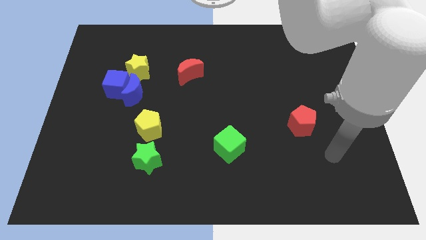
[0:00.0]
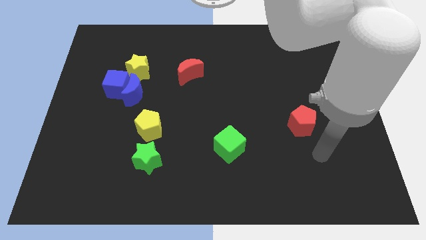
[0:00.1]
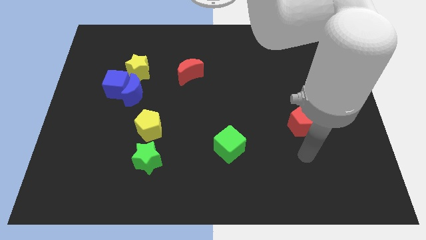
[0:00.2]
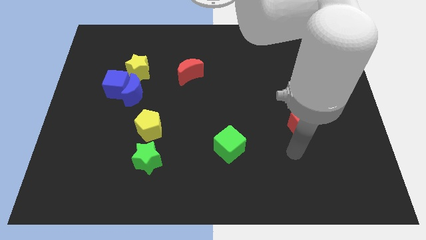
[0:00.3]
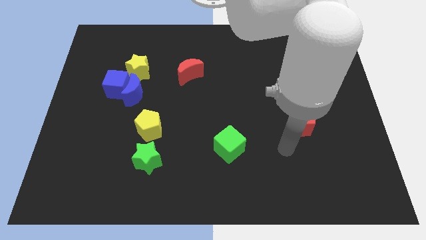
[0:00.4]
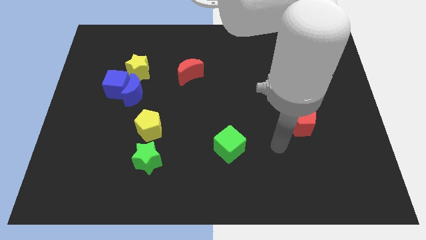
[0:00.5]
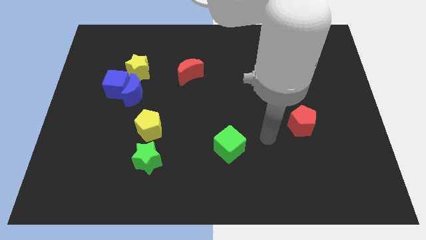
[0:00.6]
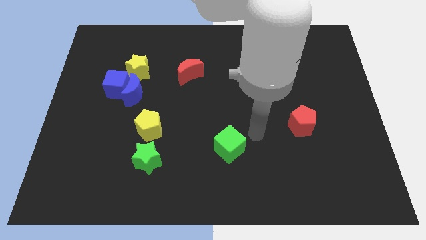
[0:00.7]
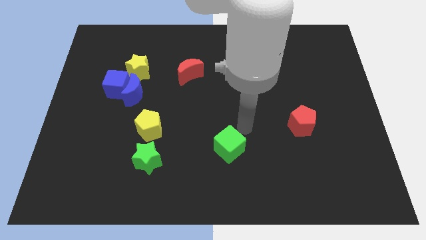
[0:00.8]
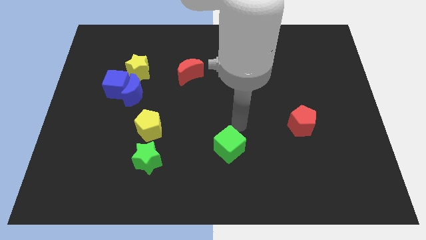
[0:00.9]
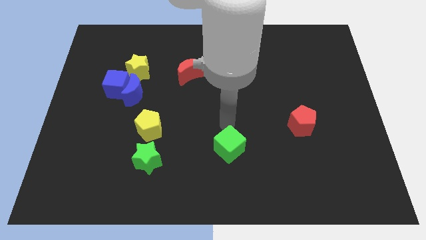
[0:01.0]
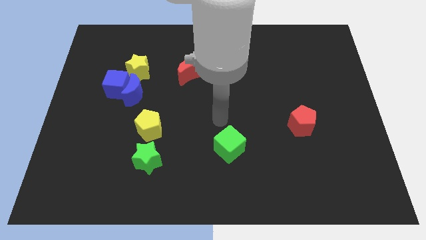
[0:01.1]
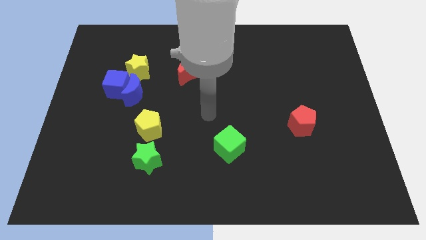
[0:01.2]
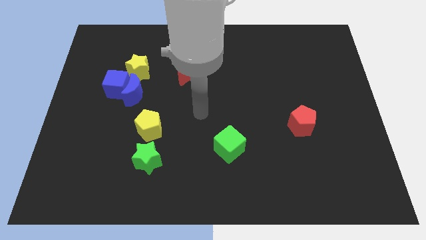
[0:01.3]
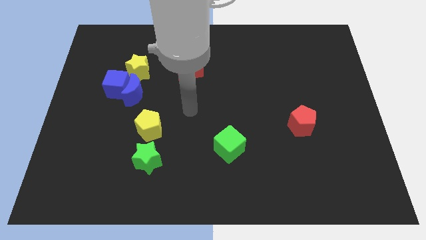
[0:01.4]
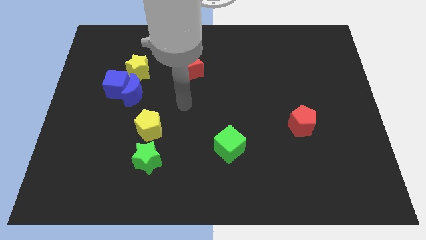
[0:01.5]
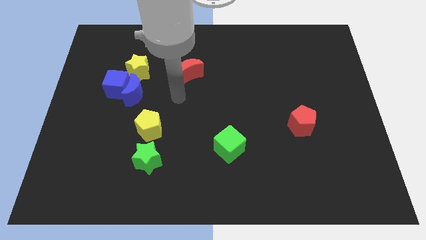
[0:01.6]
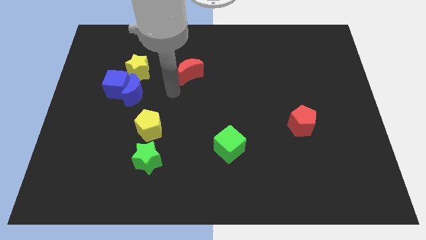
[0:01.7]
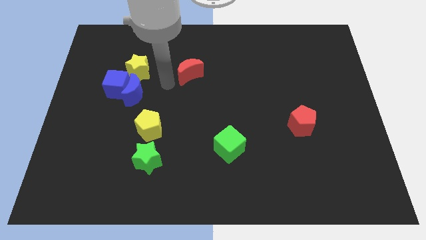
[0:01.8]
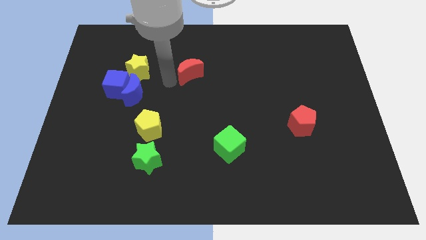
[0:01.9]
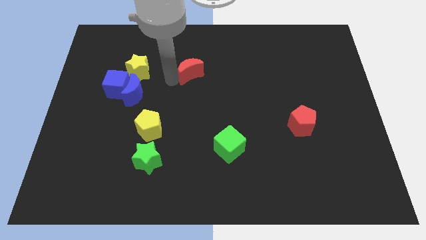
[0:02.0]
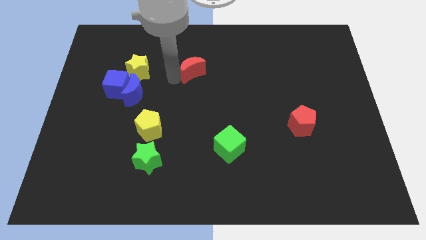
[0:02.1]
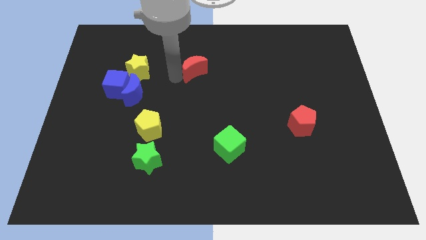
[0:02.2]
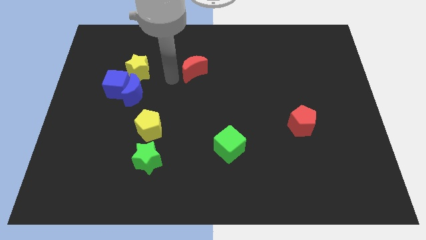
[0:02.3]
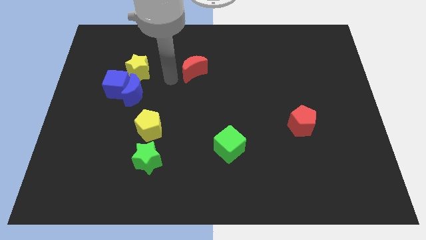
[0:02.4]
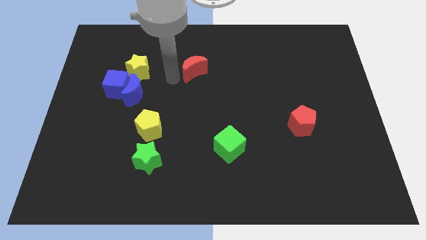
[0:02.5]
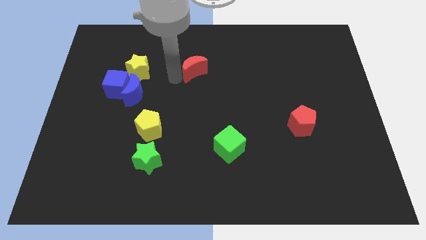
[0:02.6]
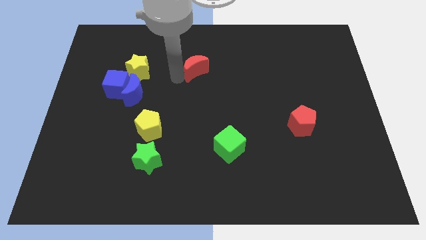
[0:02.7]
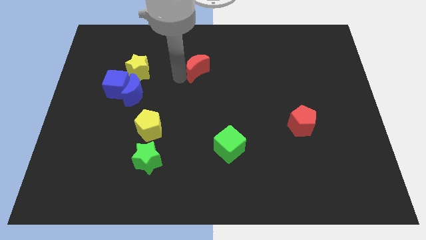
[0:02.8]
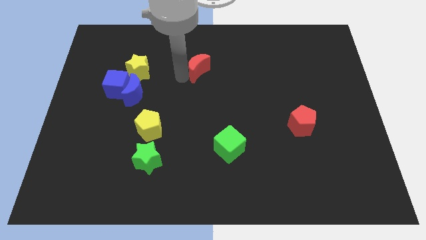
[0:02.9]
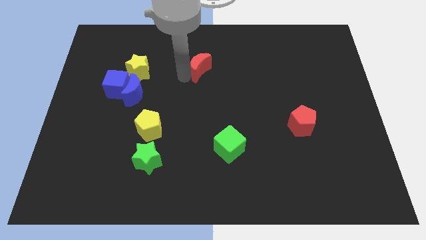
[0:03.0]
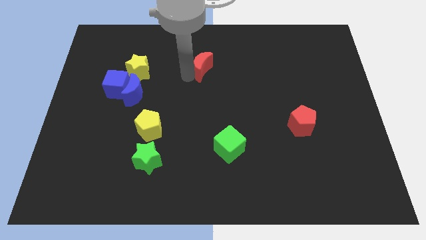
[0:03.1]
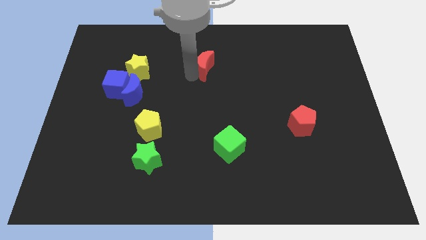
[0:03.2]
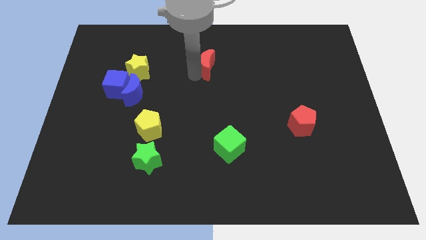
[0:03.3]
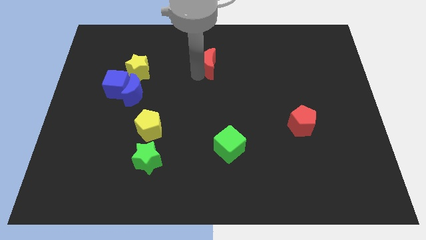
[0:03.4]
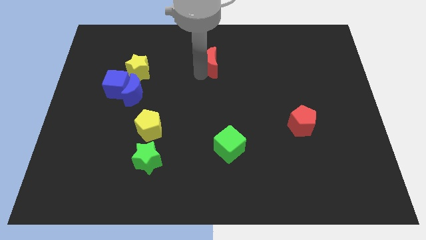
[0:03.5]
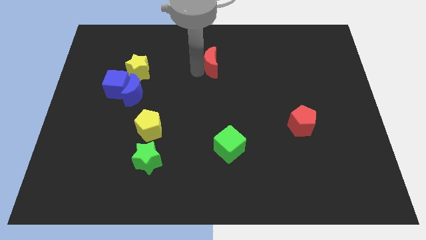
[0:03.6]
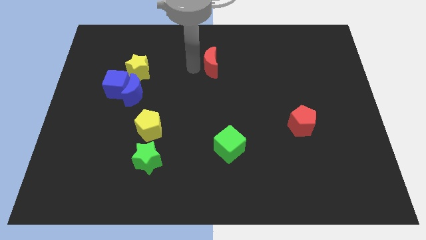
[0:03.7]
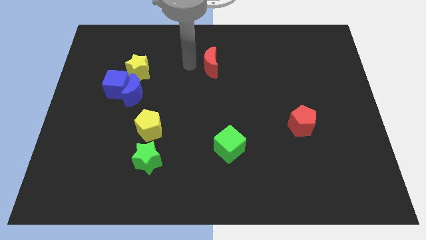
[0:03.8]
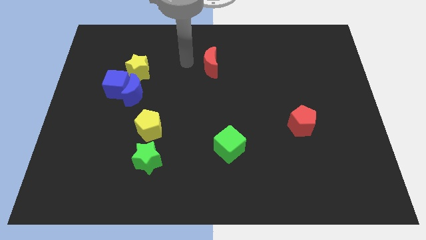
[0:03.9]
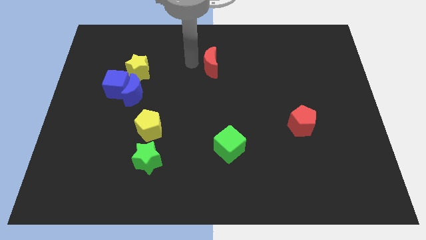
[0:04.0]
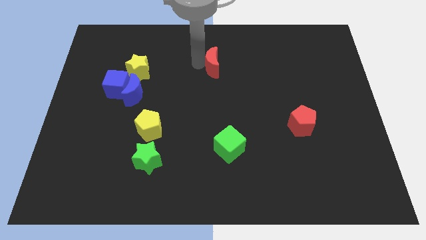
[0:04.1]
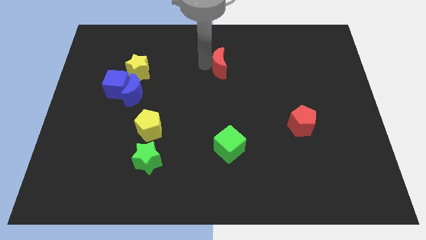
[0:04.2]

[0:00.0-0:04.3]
push the red moon to the right a little

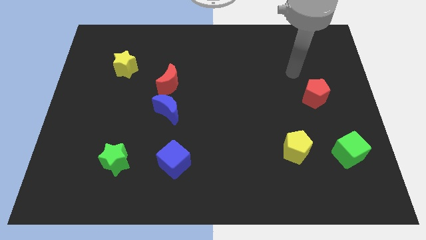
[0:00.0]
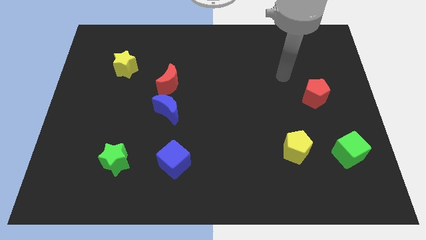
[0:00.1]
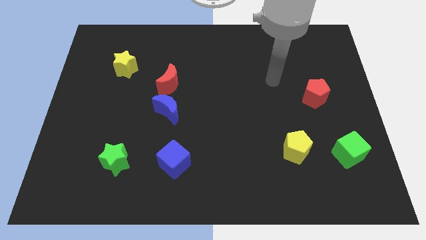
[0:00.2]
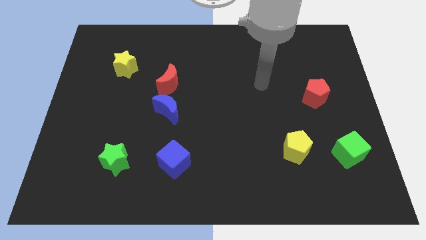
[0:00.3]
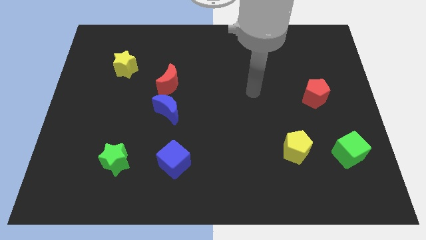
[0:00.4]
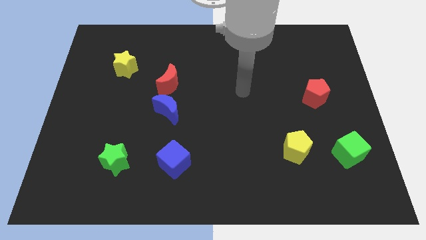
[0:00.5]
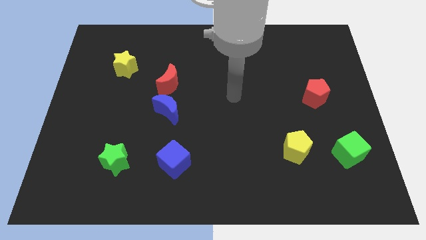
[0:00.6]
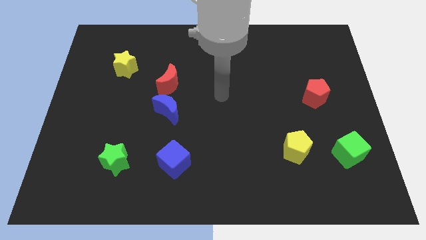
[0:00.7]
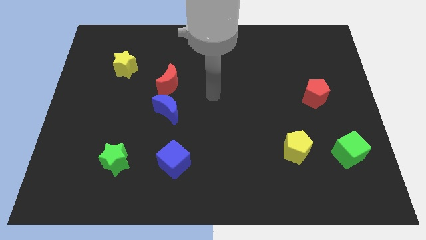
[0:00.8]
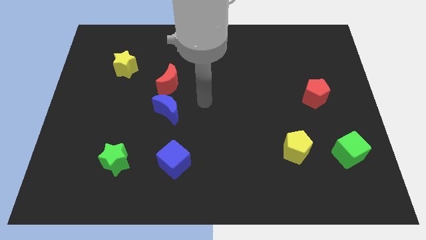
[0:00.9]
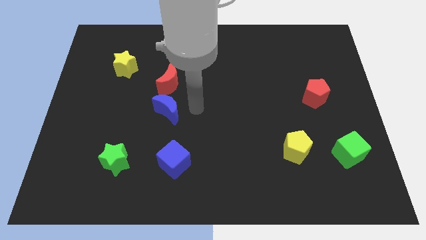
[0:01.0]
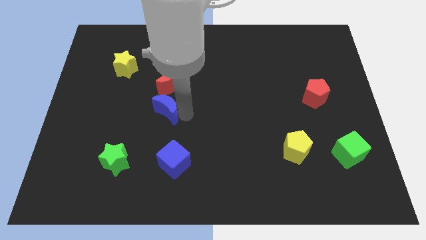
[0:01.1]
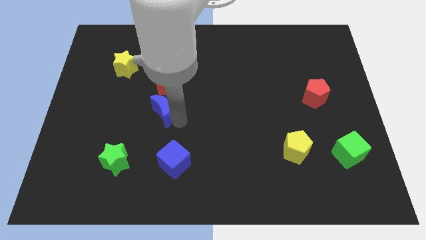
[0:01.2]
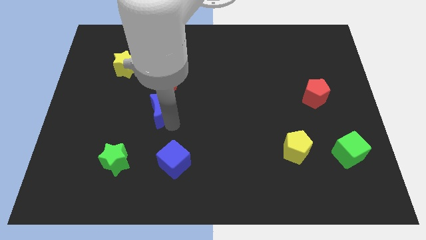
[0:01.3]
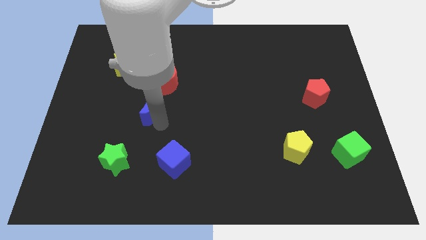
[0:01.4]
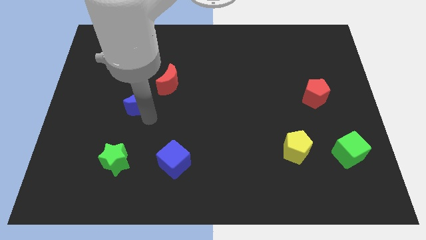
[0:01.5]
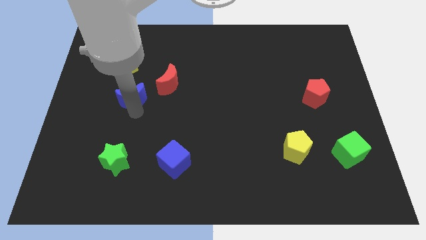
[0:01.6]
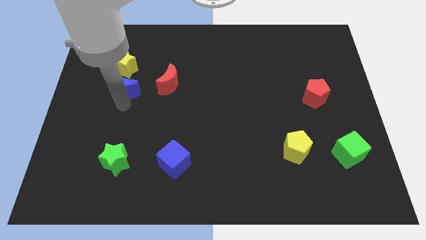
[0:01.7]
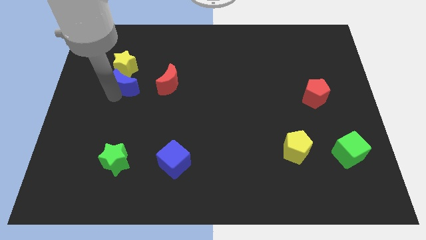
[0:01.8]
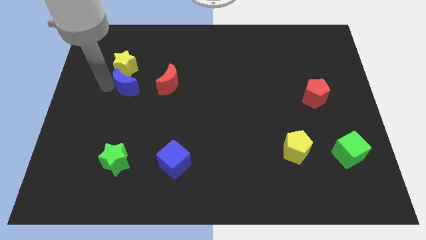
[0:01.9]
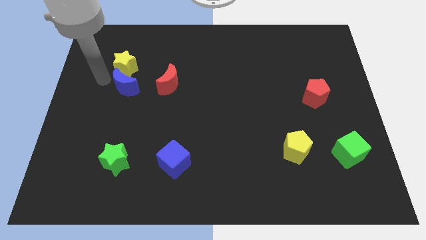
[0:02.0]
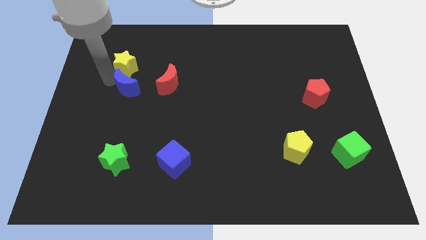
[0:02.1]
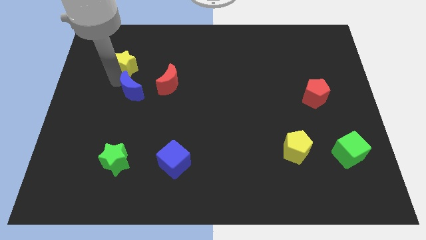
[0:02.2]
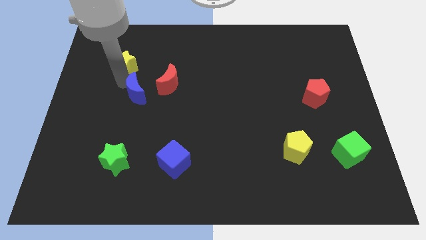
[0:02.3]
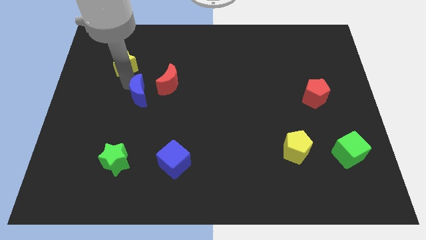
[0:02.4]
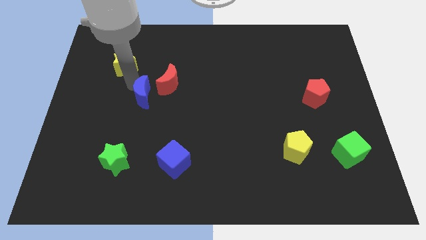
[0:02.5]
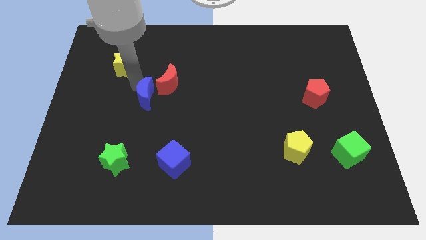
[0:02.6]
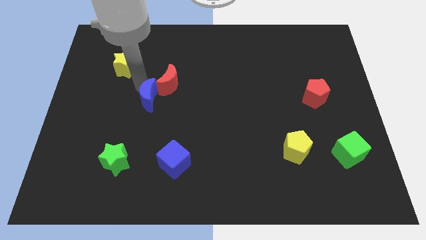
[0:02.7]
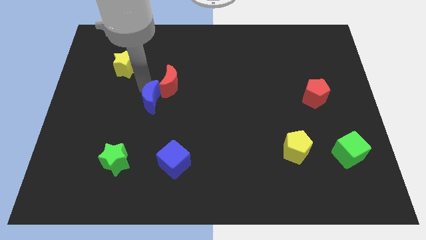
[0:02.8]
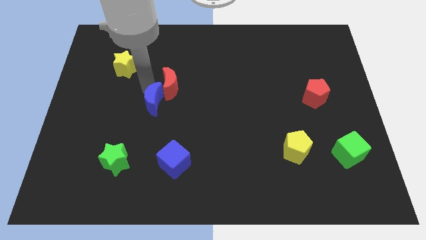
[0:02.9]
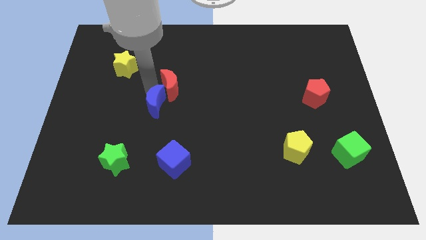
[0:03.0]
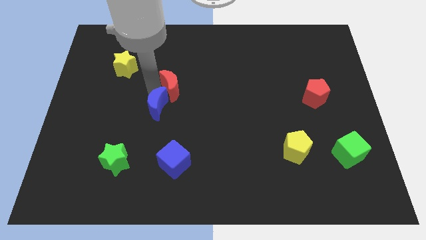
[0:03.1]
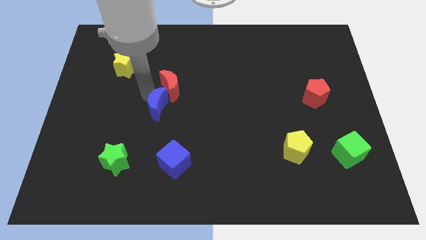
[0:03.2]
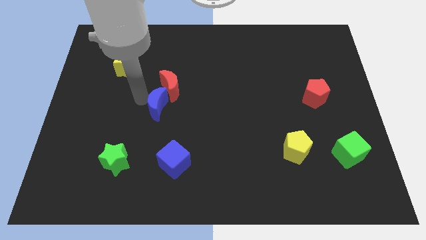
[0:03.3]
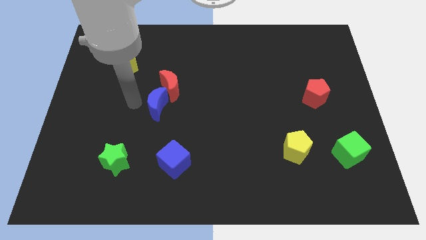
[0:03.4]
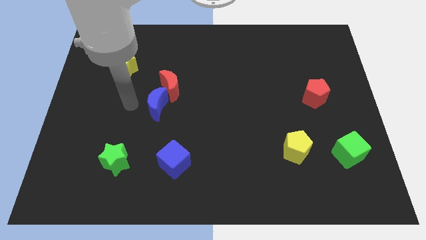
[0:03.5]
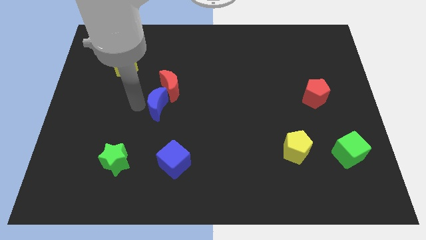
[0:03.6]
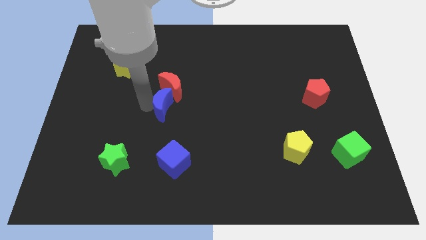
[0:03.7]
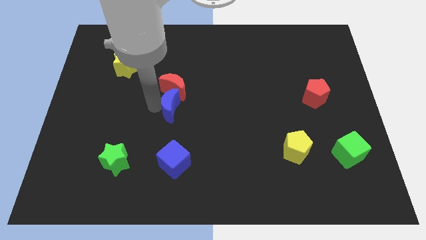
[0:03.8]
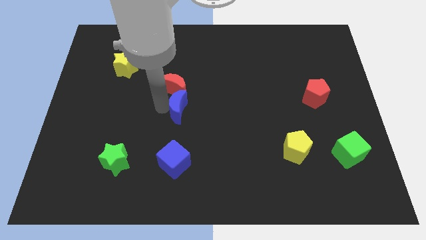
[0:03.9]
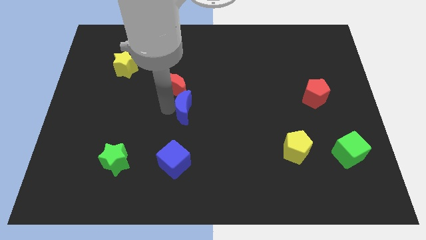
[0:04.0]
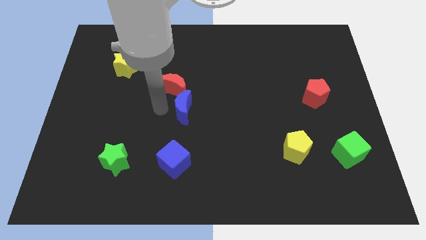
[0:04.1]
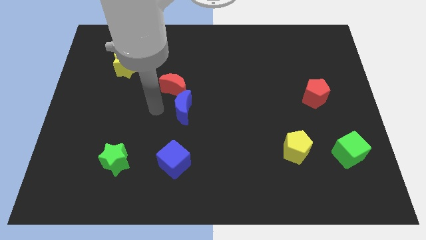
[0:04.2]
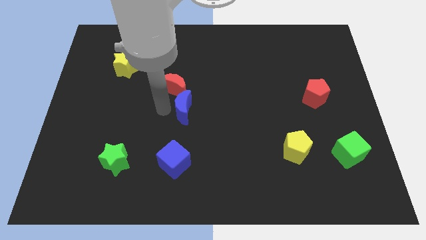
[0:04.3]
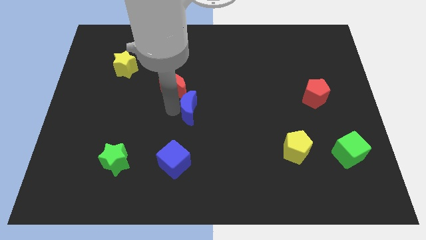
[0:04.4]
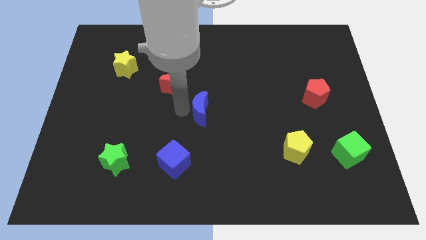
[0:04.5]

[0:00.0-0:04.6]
slide the blue moon to the right slightly
